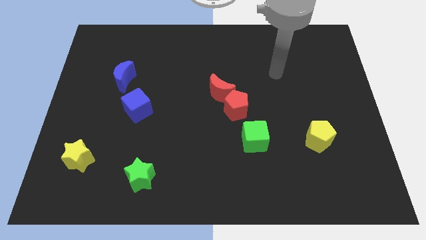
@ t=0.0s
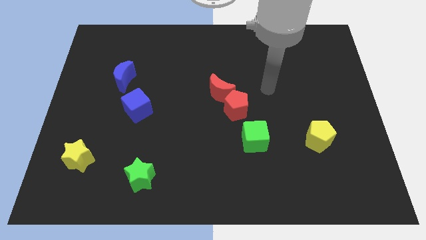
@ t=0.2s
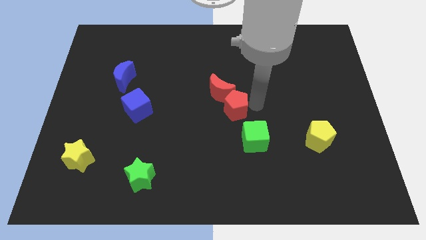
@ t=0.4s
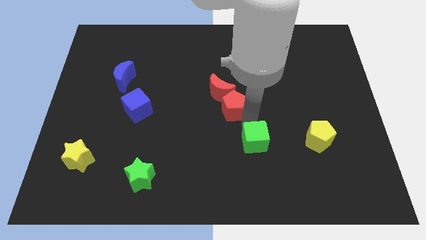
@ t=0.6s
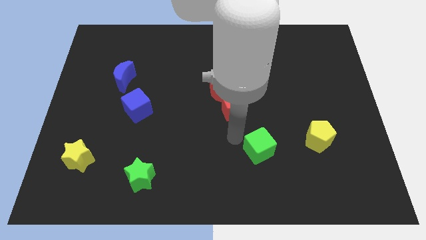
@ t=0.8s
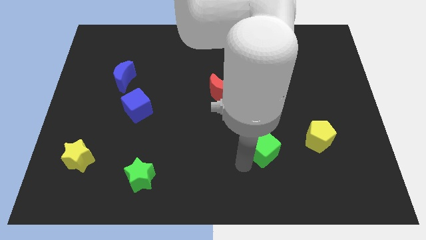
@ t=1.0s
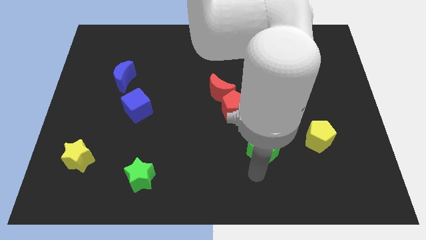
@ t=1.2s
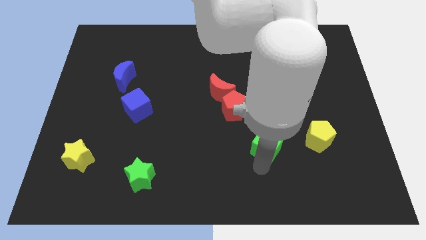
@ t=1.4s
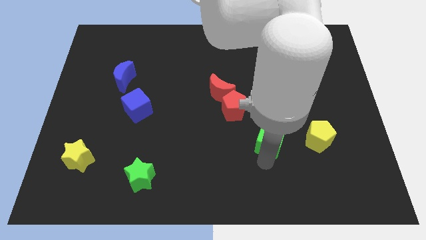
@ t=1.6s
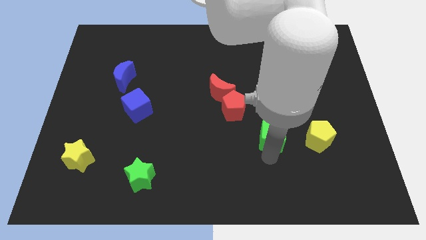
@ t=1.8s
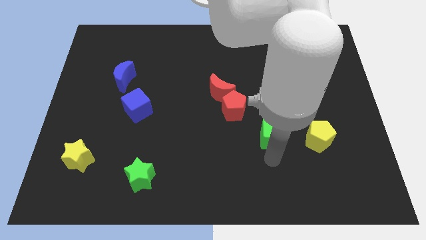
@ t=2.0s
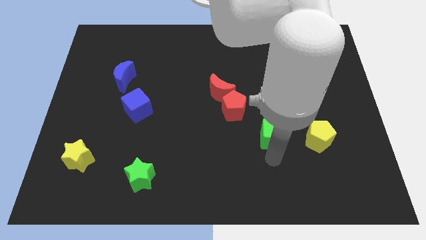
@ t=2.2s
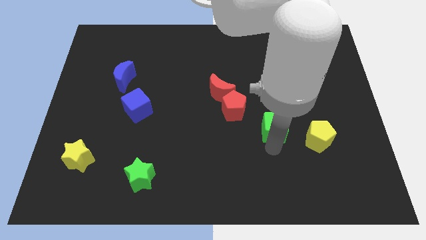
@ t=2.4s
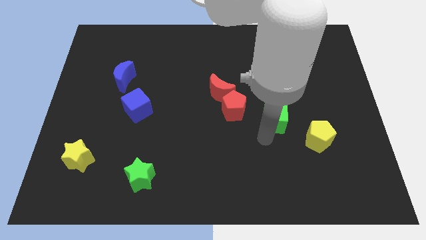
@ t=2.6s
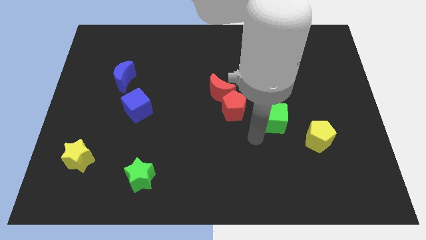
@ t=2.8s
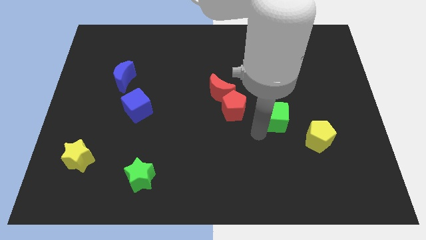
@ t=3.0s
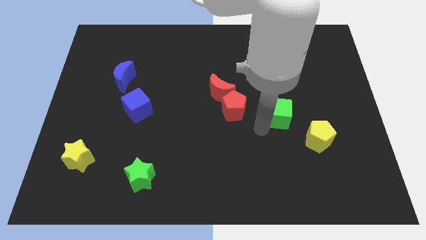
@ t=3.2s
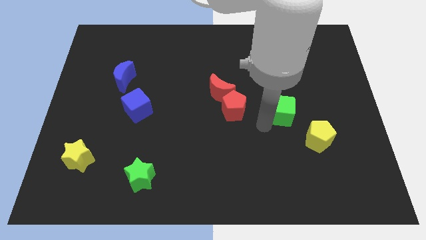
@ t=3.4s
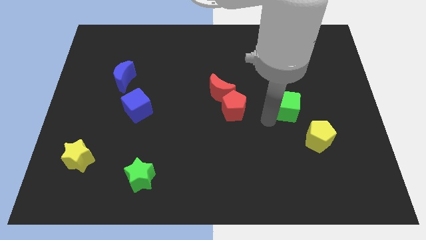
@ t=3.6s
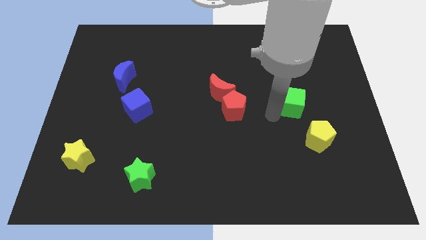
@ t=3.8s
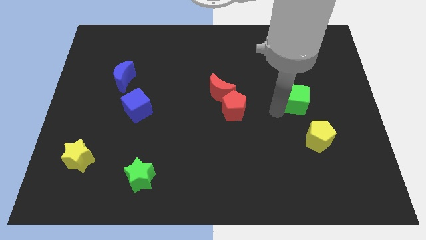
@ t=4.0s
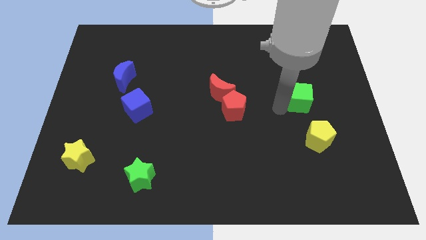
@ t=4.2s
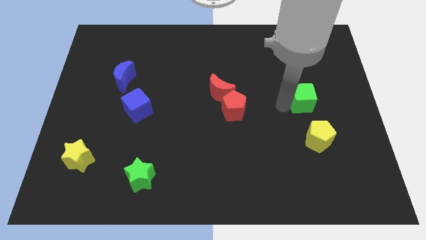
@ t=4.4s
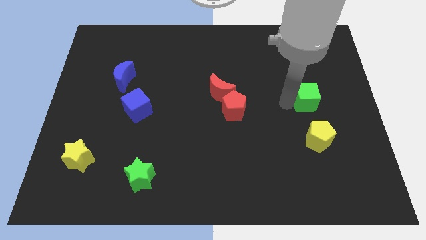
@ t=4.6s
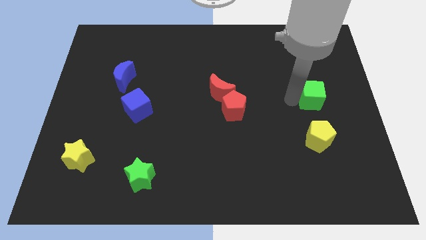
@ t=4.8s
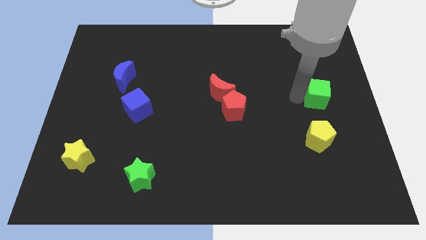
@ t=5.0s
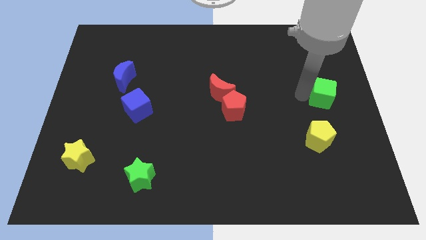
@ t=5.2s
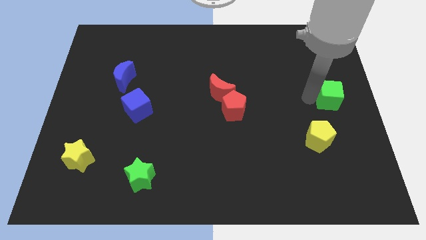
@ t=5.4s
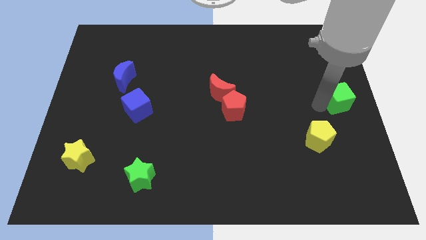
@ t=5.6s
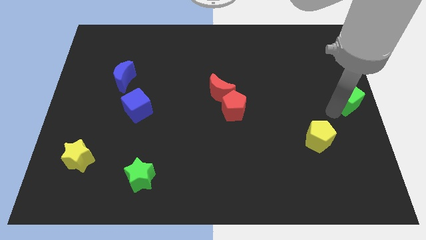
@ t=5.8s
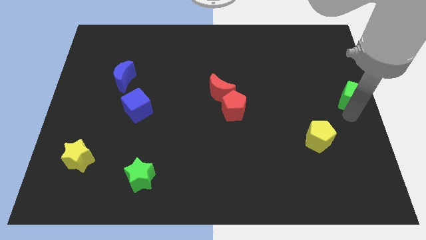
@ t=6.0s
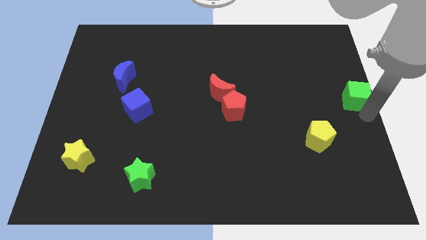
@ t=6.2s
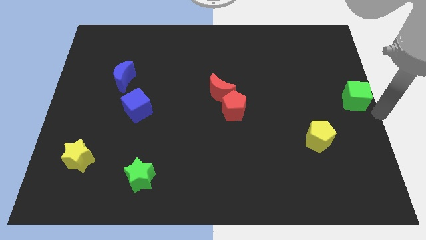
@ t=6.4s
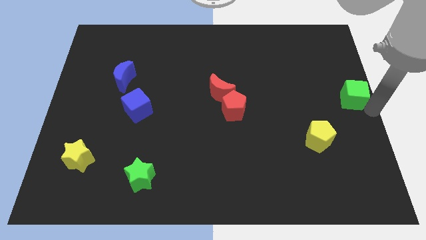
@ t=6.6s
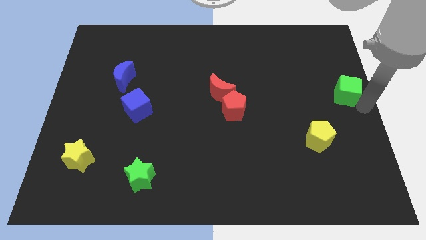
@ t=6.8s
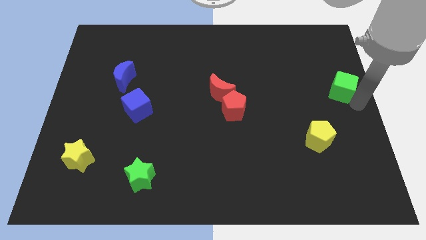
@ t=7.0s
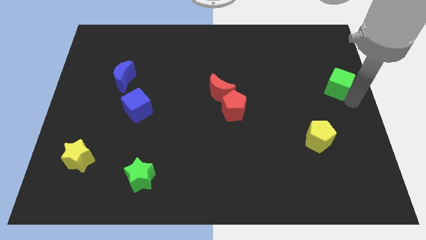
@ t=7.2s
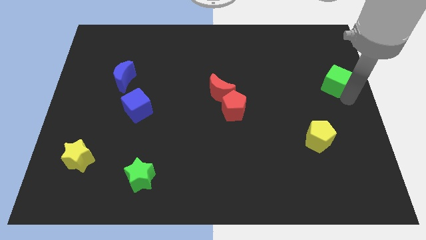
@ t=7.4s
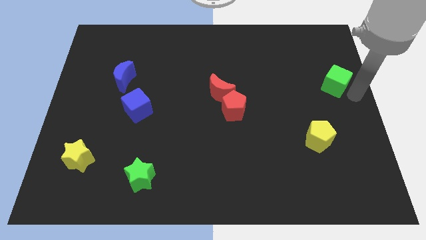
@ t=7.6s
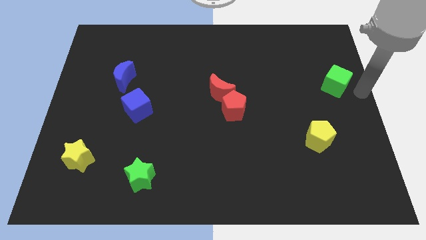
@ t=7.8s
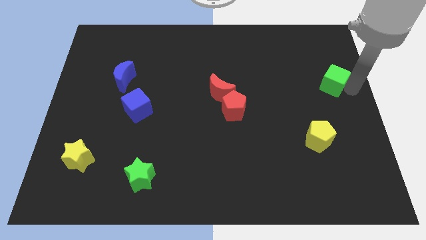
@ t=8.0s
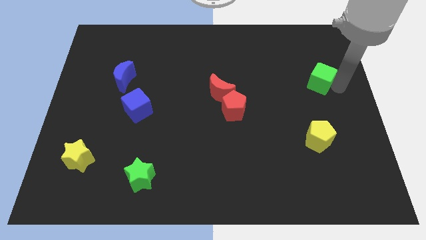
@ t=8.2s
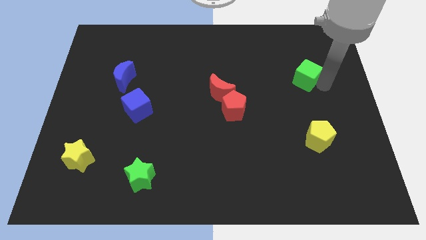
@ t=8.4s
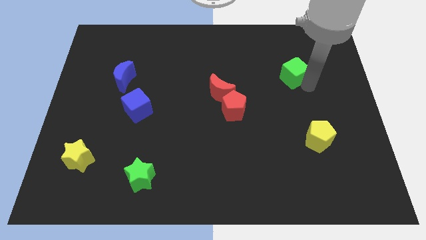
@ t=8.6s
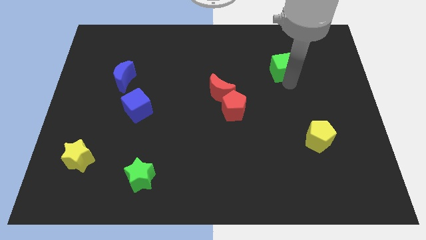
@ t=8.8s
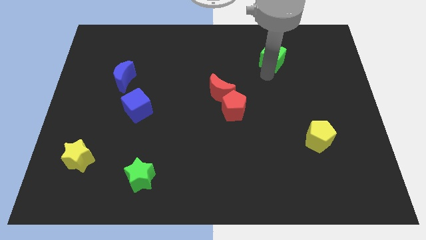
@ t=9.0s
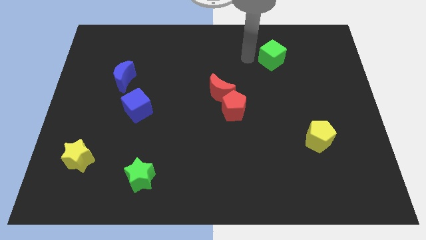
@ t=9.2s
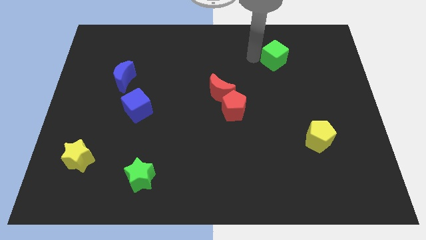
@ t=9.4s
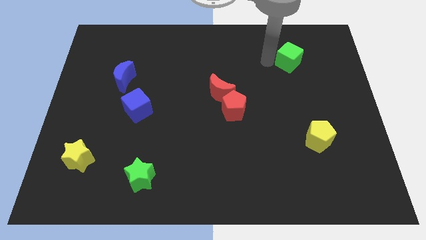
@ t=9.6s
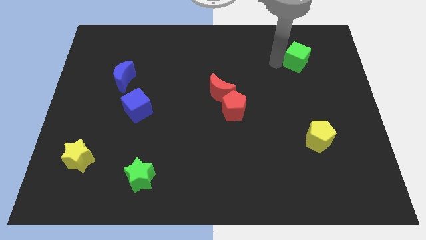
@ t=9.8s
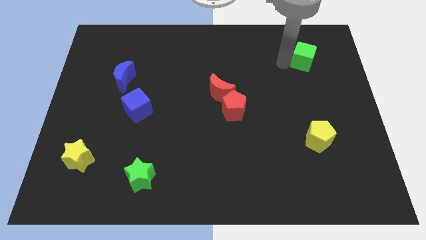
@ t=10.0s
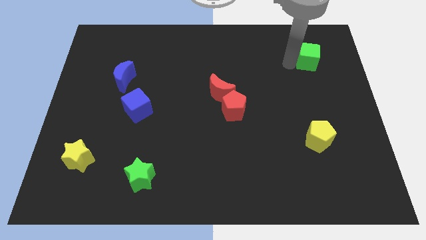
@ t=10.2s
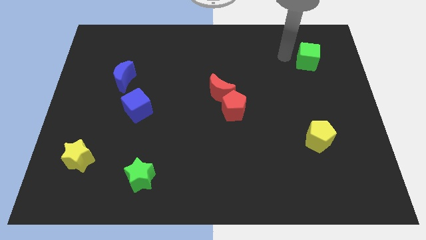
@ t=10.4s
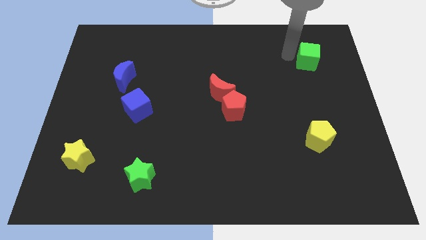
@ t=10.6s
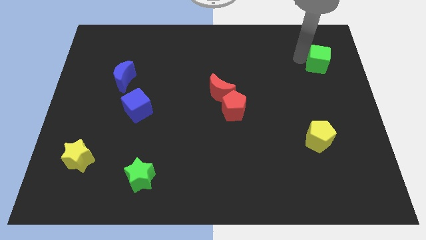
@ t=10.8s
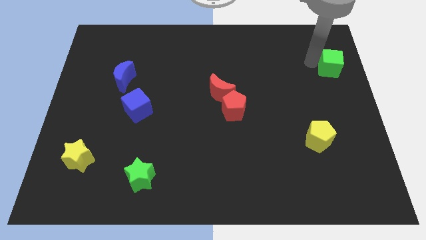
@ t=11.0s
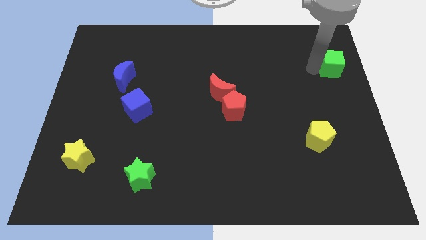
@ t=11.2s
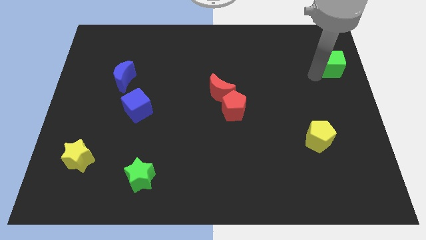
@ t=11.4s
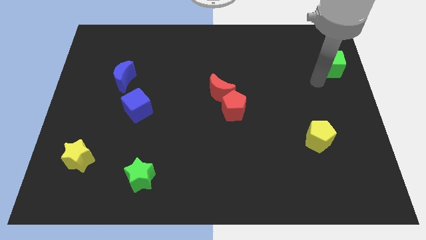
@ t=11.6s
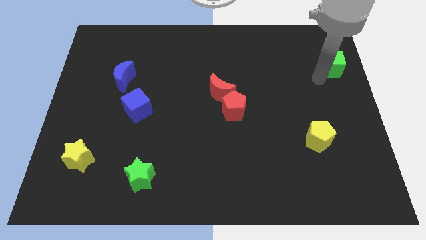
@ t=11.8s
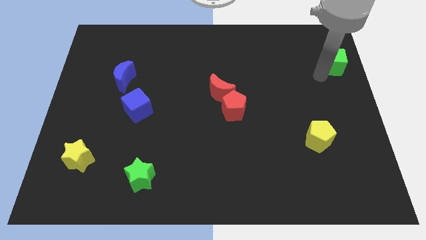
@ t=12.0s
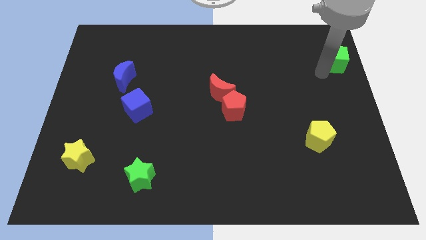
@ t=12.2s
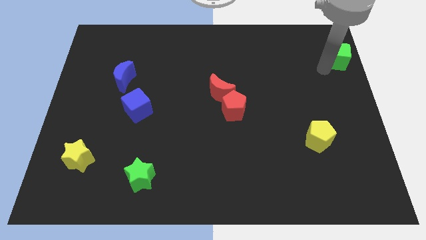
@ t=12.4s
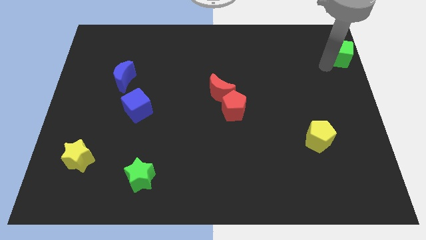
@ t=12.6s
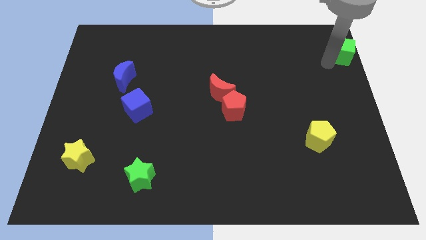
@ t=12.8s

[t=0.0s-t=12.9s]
put the green cube to the top right of the board
